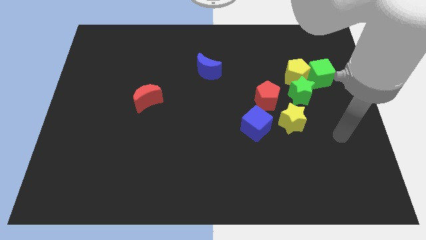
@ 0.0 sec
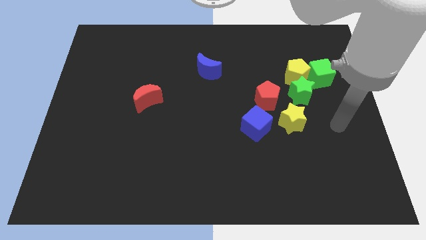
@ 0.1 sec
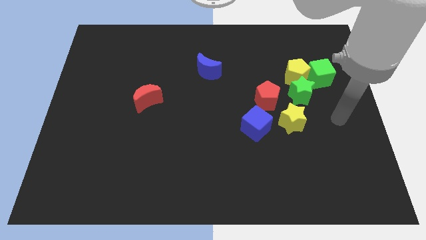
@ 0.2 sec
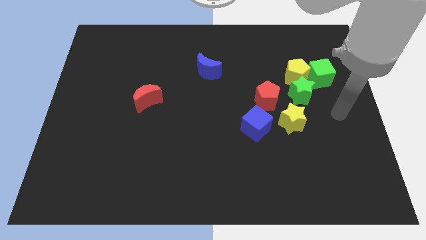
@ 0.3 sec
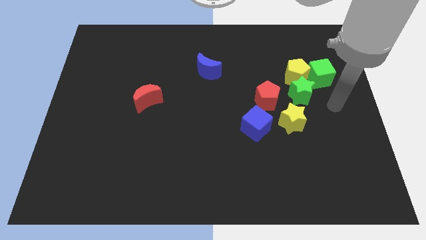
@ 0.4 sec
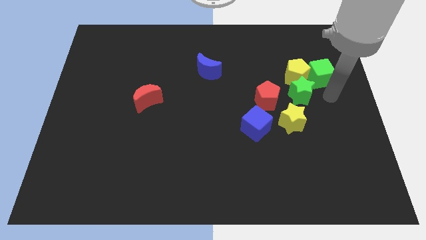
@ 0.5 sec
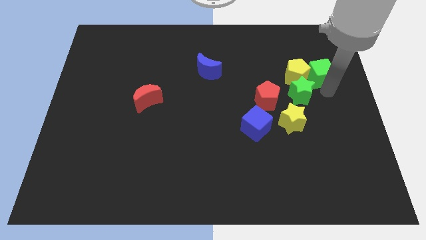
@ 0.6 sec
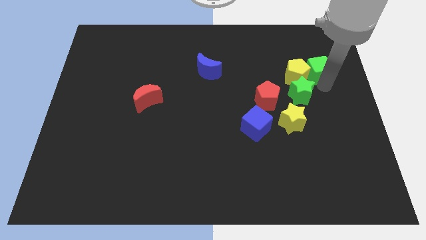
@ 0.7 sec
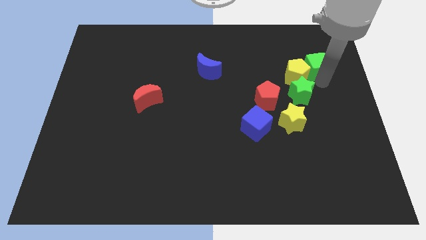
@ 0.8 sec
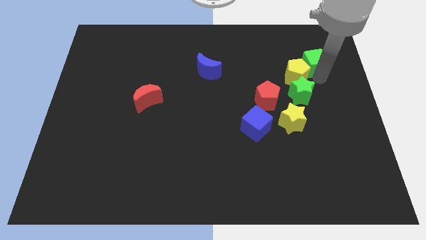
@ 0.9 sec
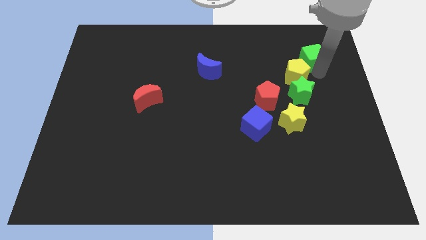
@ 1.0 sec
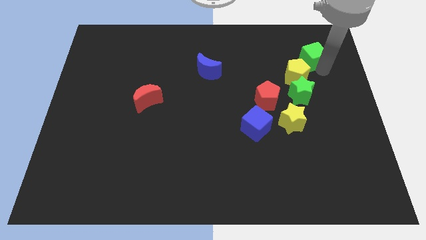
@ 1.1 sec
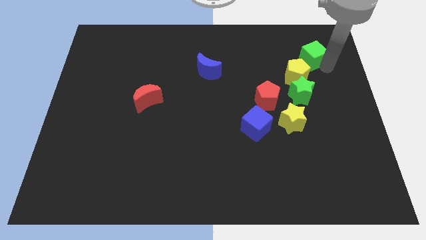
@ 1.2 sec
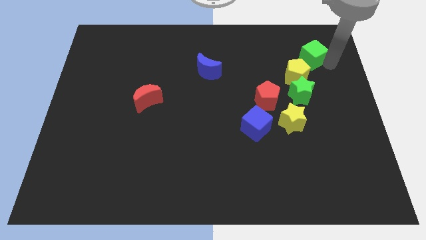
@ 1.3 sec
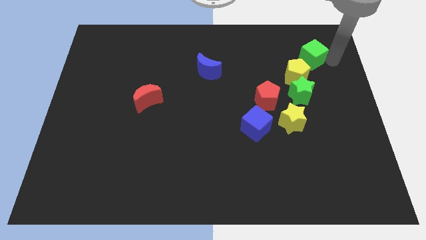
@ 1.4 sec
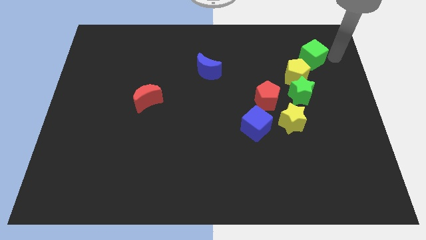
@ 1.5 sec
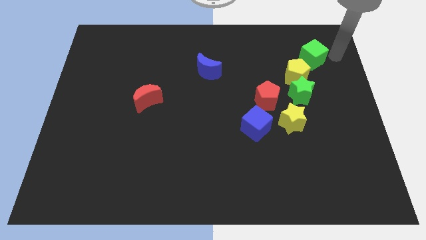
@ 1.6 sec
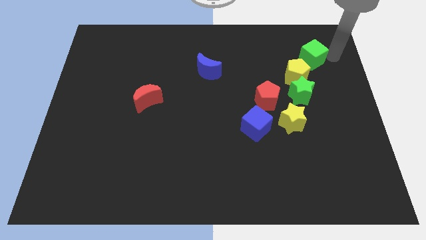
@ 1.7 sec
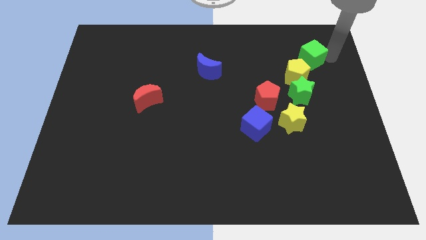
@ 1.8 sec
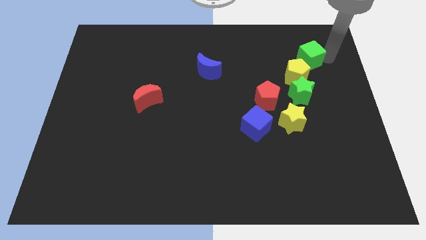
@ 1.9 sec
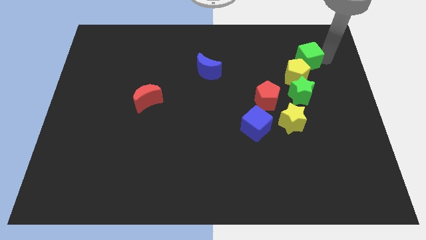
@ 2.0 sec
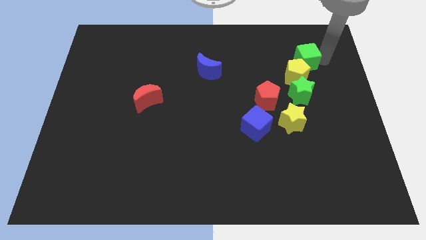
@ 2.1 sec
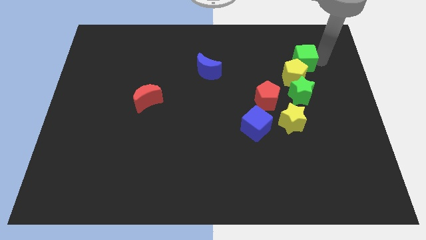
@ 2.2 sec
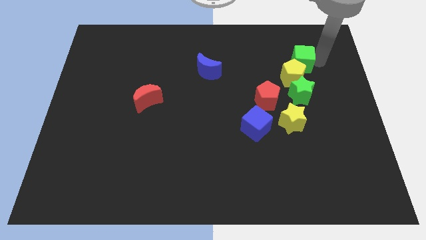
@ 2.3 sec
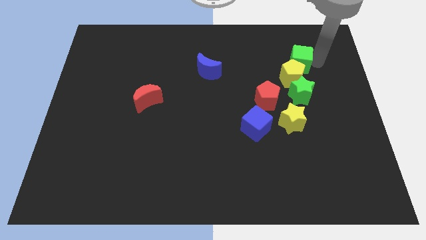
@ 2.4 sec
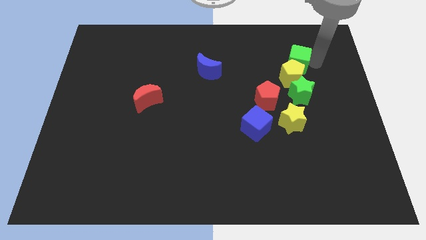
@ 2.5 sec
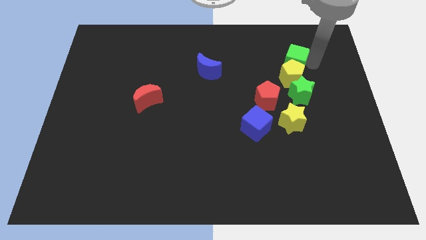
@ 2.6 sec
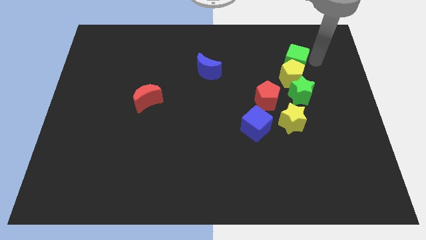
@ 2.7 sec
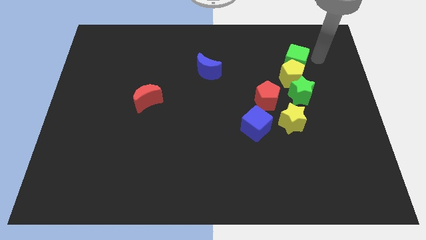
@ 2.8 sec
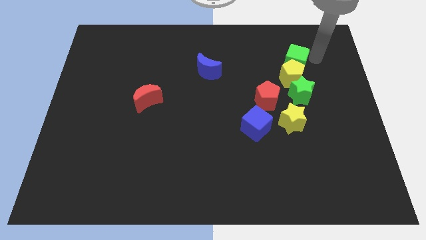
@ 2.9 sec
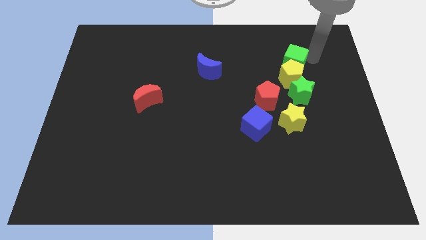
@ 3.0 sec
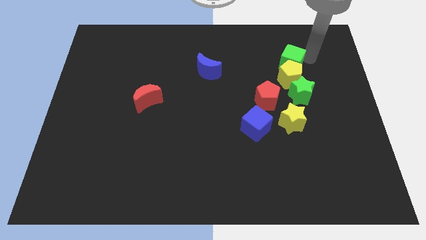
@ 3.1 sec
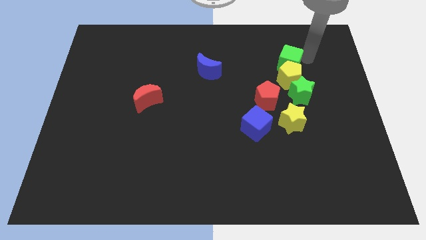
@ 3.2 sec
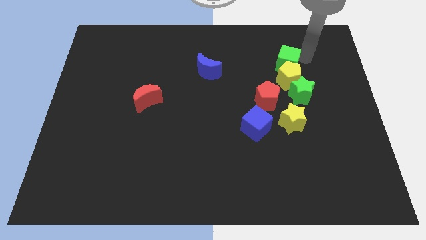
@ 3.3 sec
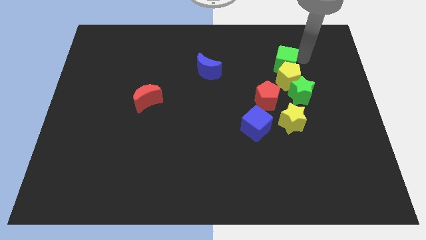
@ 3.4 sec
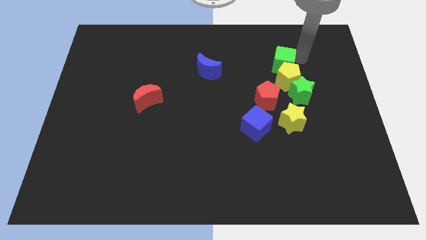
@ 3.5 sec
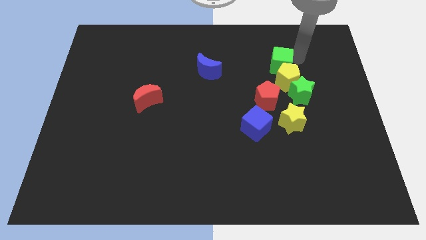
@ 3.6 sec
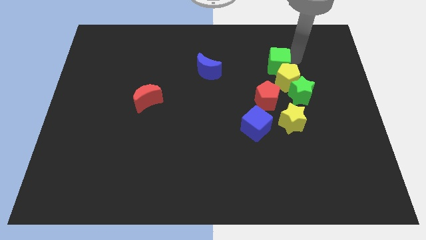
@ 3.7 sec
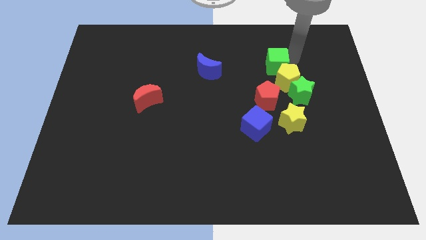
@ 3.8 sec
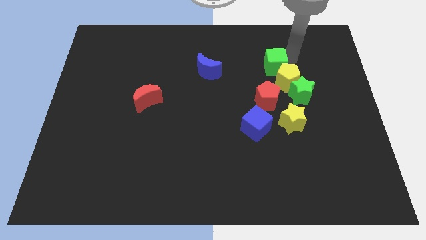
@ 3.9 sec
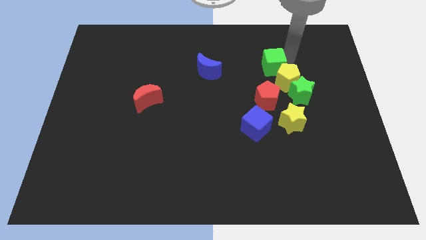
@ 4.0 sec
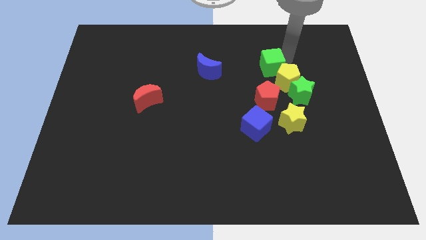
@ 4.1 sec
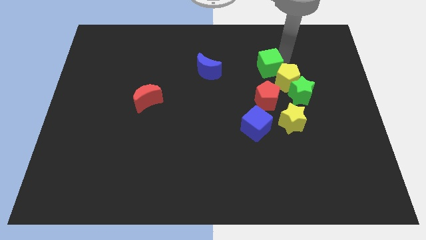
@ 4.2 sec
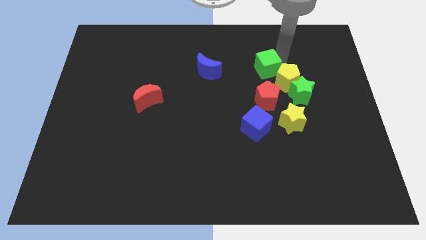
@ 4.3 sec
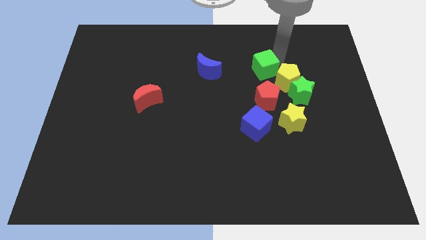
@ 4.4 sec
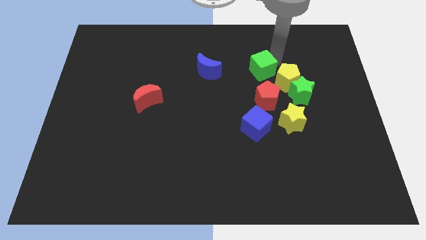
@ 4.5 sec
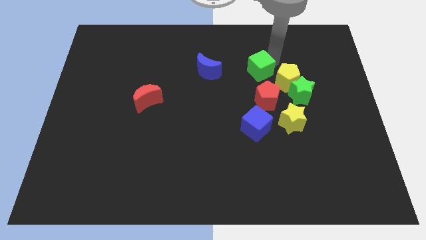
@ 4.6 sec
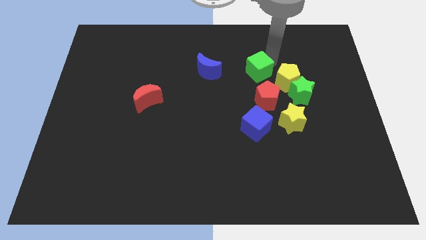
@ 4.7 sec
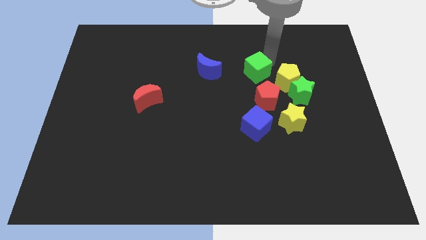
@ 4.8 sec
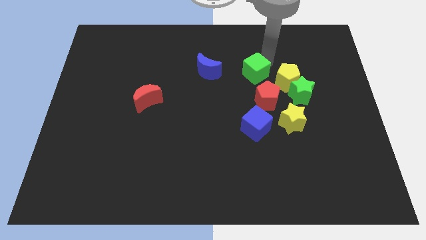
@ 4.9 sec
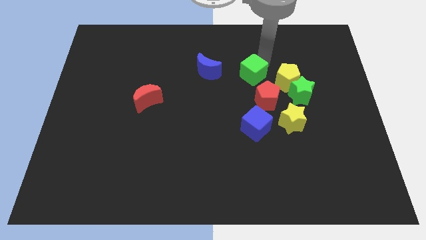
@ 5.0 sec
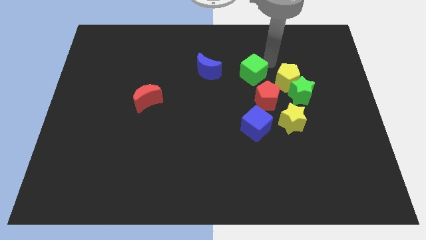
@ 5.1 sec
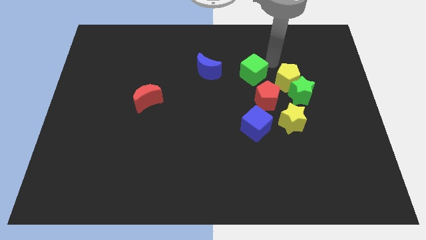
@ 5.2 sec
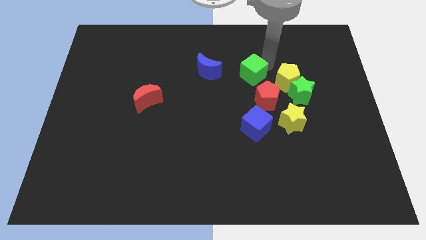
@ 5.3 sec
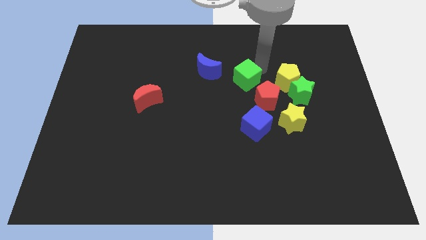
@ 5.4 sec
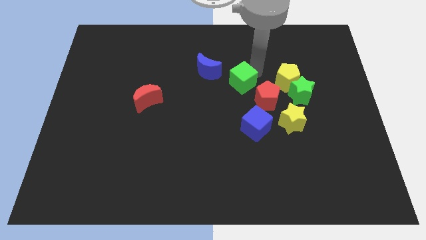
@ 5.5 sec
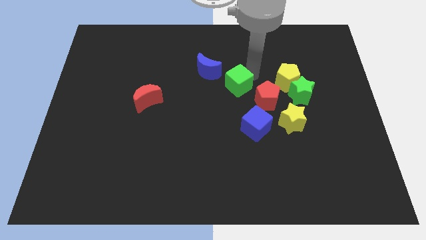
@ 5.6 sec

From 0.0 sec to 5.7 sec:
move the green cube left

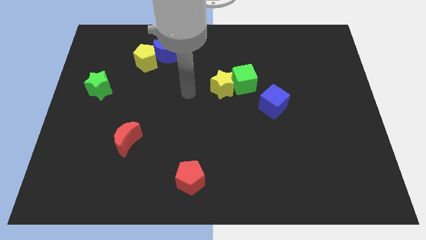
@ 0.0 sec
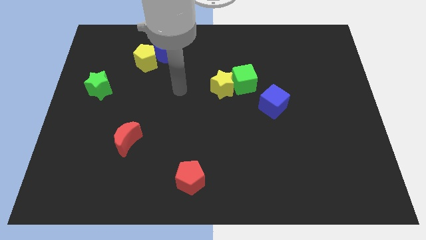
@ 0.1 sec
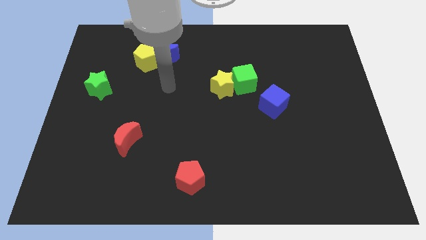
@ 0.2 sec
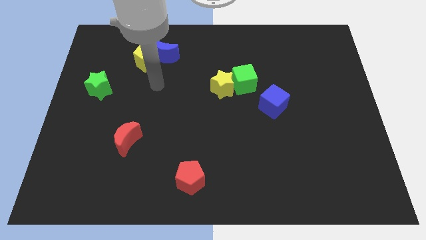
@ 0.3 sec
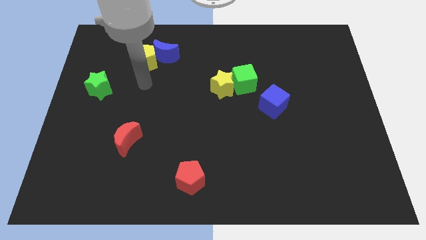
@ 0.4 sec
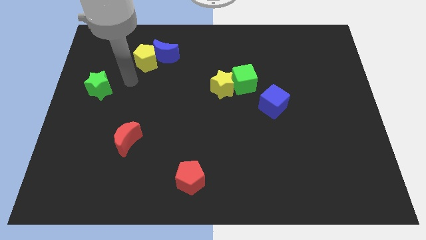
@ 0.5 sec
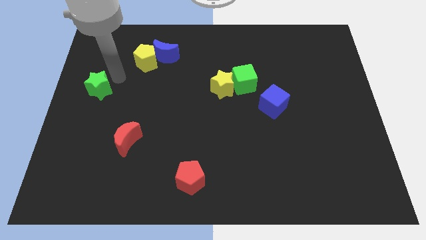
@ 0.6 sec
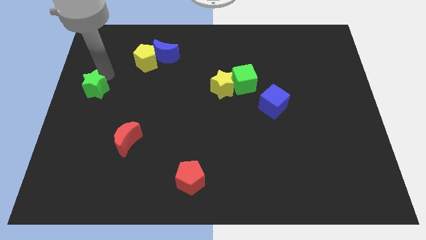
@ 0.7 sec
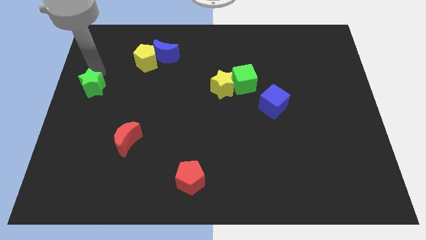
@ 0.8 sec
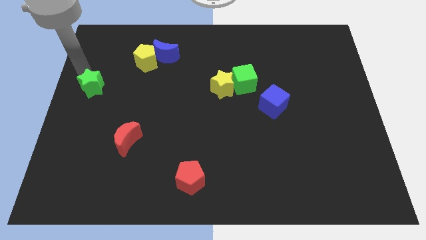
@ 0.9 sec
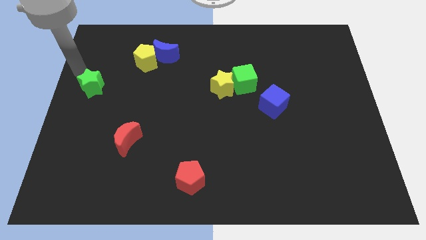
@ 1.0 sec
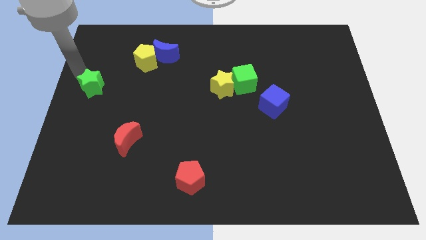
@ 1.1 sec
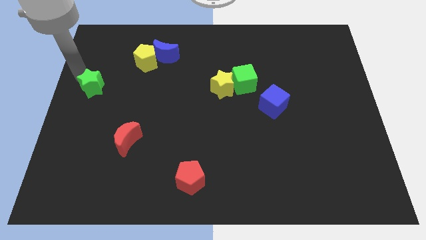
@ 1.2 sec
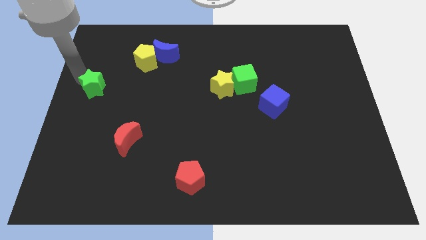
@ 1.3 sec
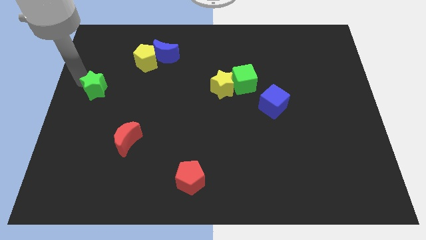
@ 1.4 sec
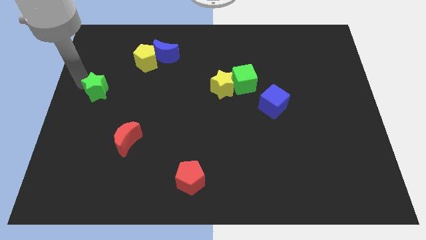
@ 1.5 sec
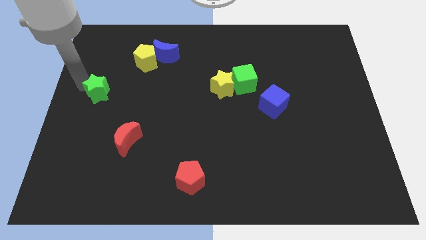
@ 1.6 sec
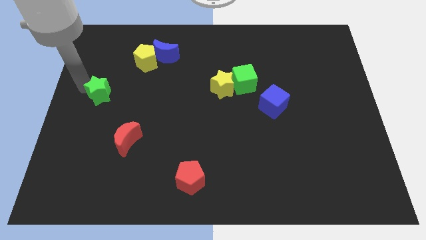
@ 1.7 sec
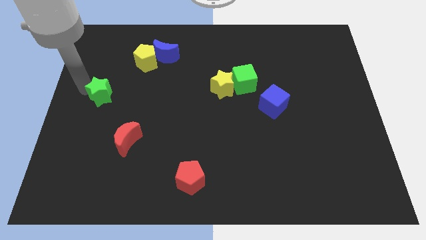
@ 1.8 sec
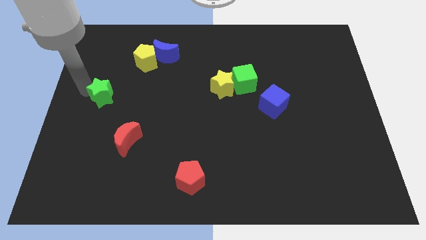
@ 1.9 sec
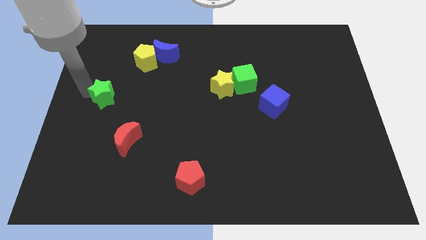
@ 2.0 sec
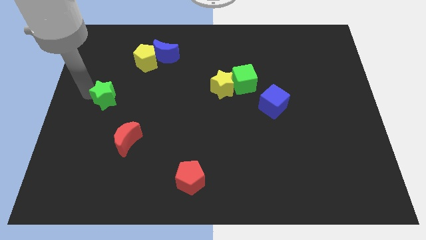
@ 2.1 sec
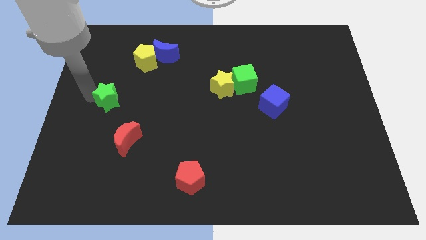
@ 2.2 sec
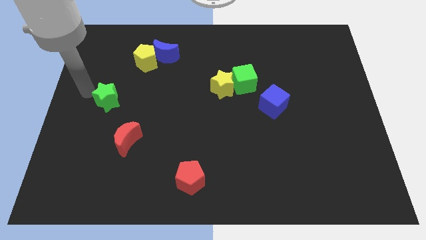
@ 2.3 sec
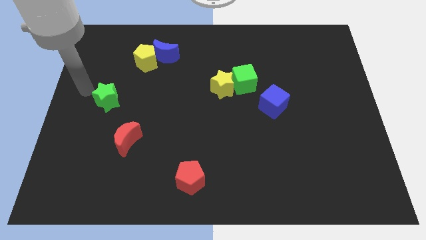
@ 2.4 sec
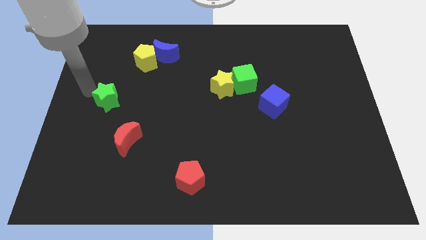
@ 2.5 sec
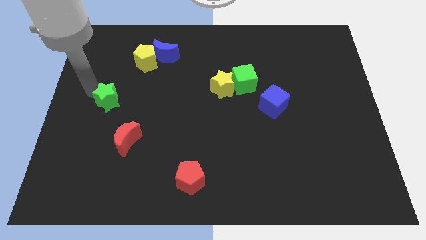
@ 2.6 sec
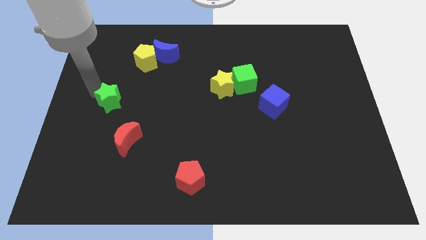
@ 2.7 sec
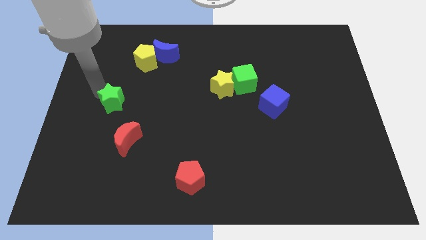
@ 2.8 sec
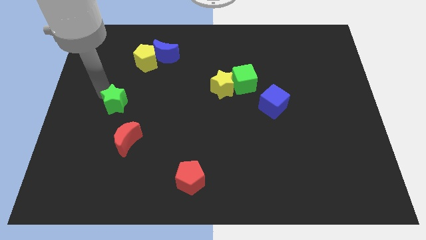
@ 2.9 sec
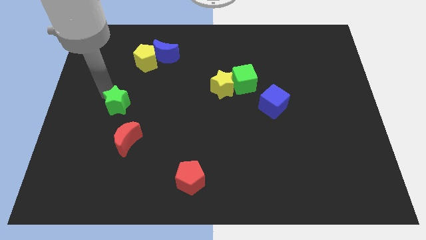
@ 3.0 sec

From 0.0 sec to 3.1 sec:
slide the green star slightly down and to the right
